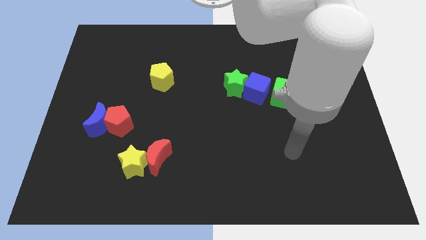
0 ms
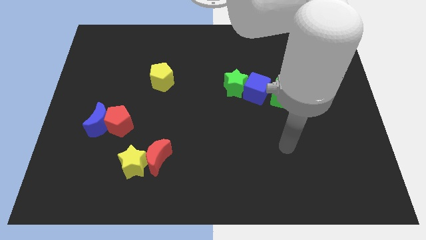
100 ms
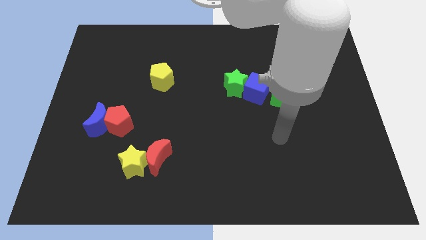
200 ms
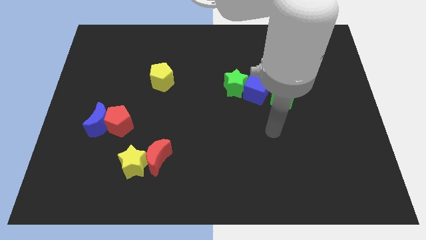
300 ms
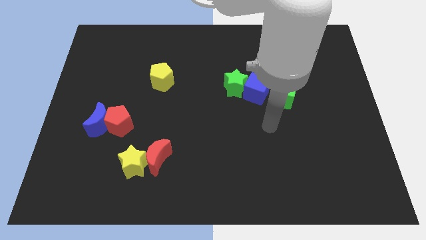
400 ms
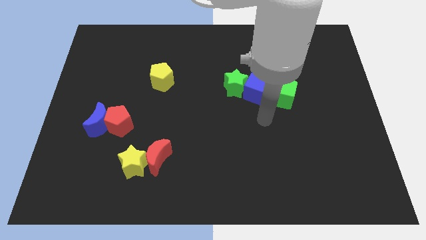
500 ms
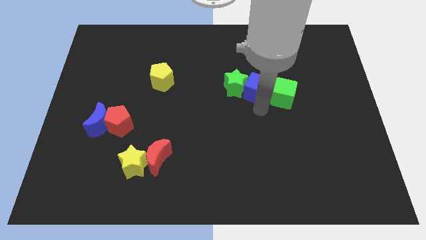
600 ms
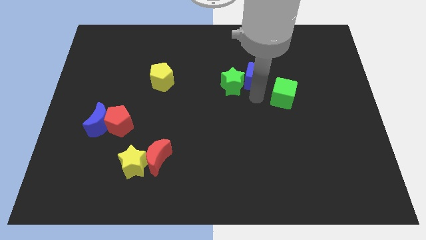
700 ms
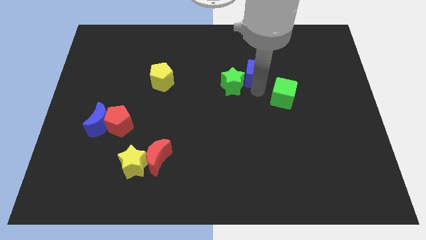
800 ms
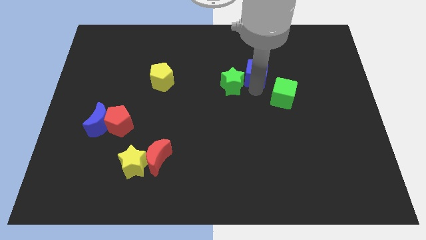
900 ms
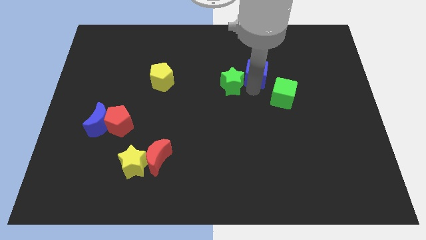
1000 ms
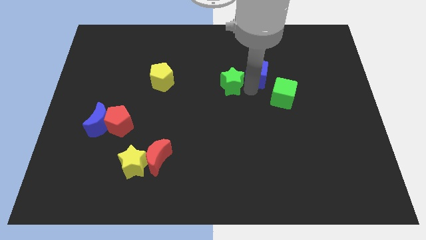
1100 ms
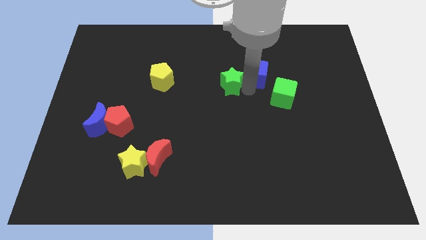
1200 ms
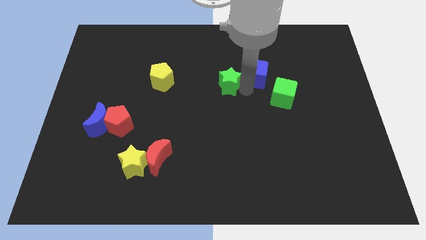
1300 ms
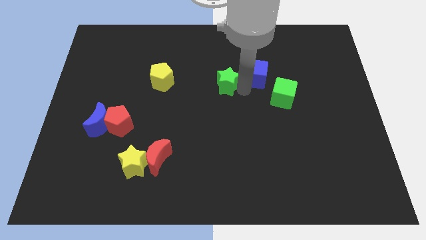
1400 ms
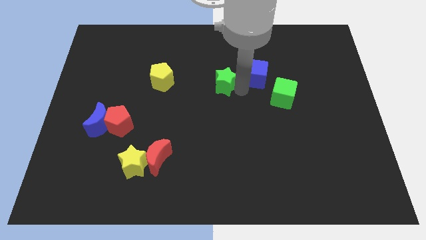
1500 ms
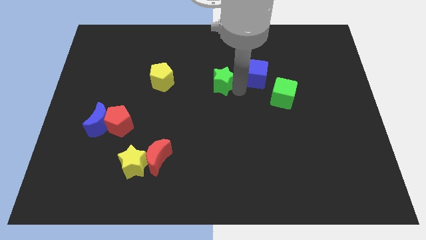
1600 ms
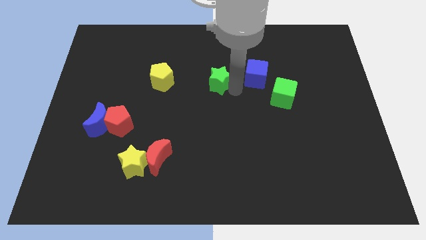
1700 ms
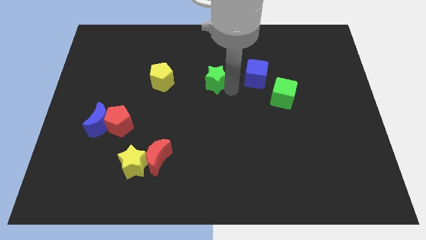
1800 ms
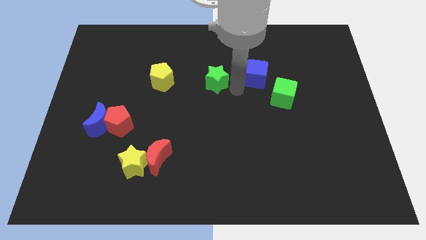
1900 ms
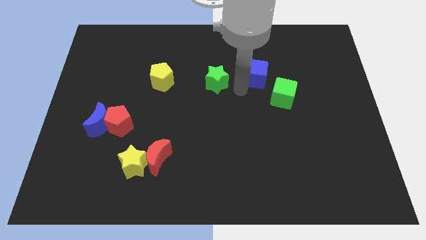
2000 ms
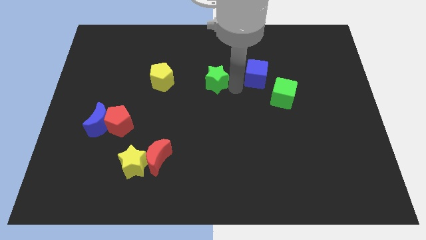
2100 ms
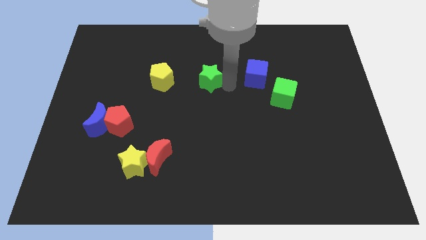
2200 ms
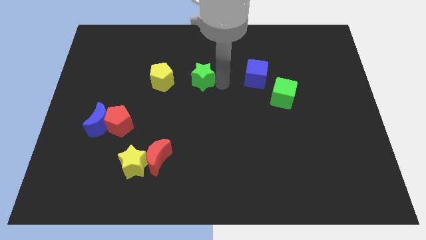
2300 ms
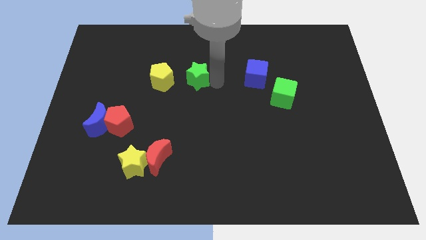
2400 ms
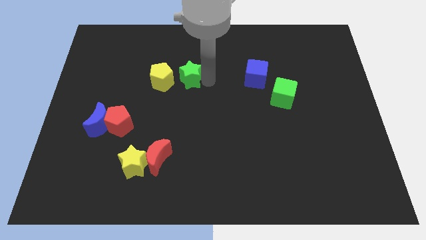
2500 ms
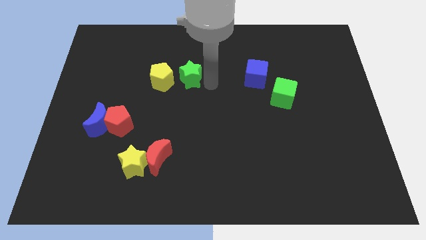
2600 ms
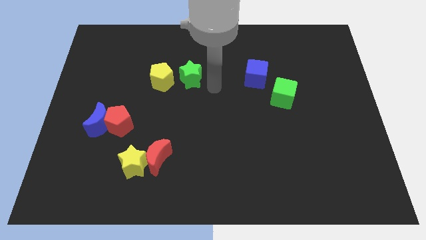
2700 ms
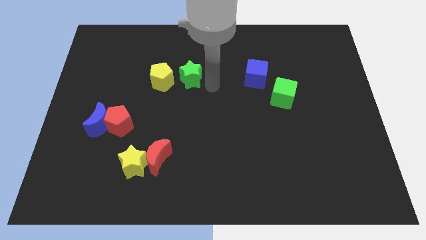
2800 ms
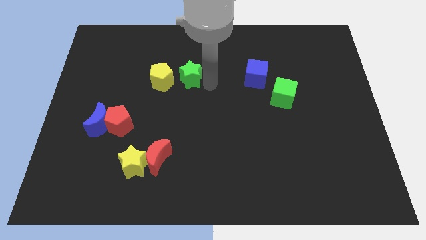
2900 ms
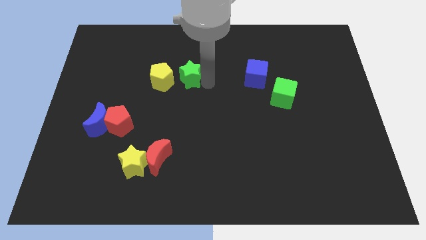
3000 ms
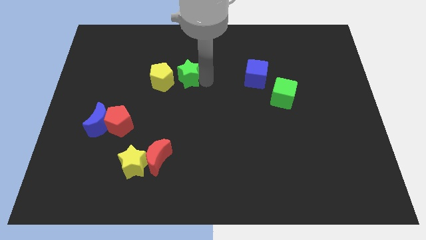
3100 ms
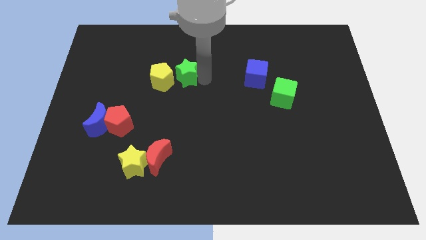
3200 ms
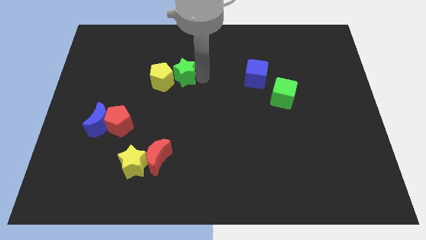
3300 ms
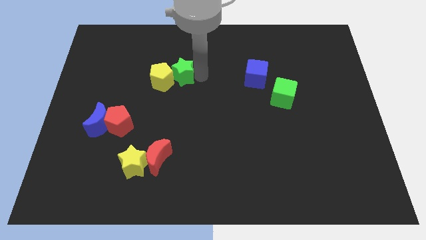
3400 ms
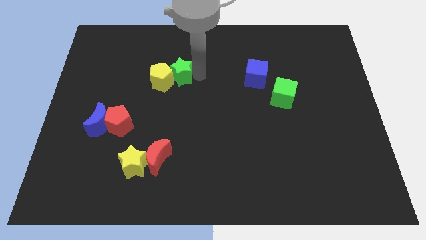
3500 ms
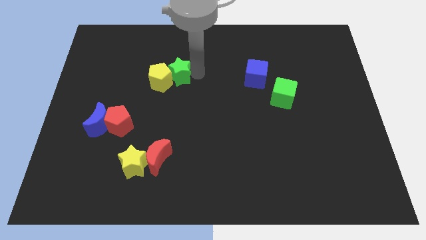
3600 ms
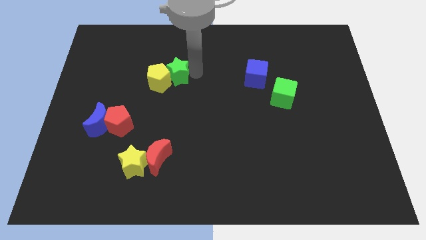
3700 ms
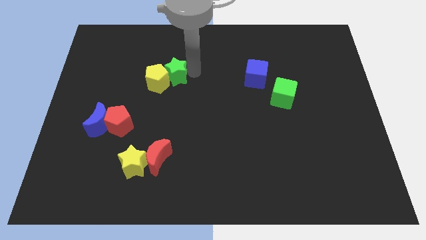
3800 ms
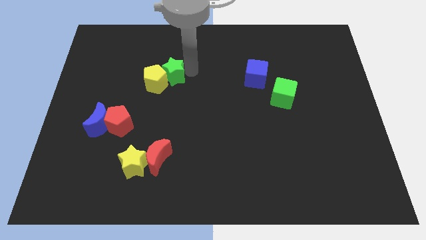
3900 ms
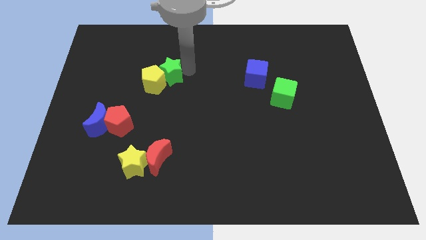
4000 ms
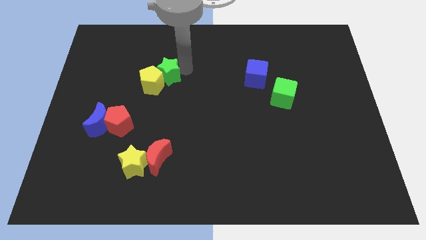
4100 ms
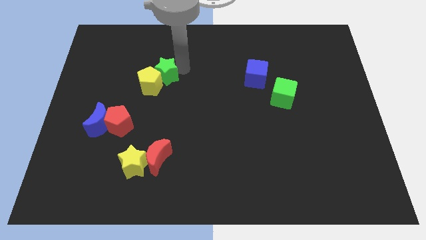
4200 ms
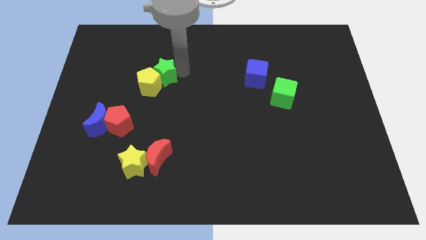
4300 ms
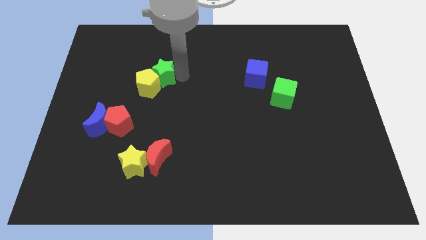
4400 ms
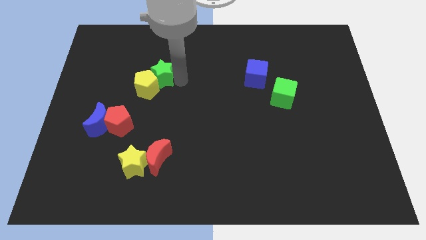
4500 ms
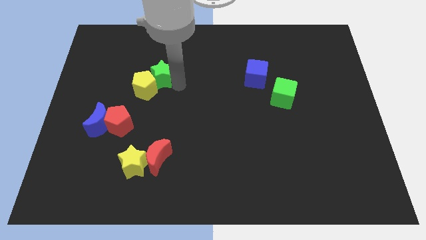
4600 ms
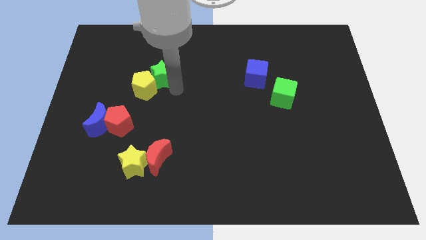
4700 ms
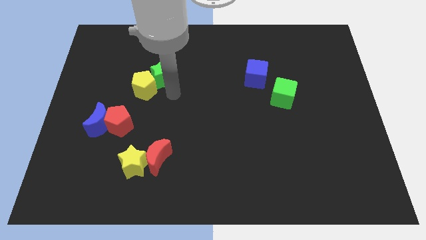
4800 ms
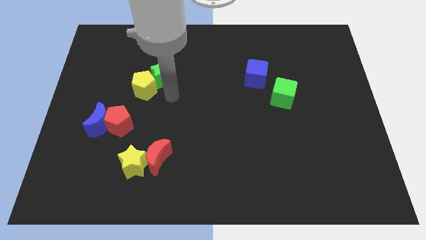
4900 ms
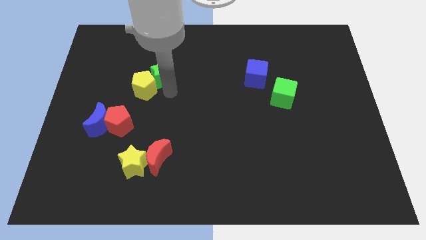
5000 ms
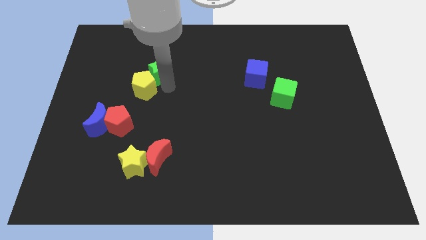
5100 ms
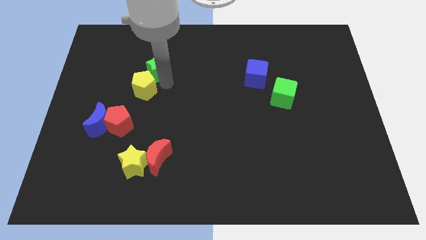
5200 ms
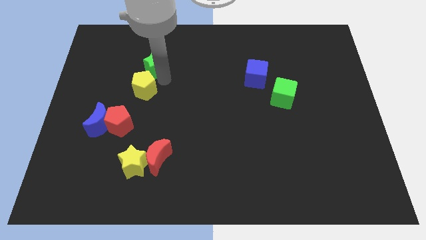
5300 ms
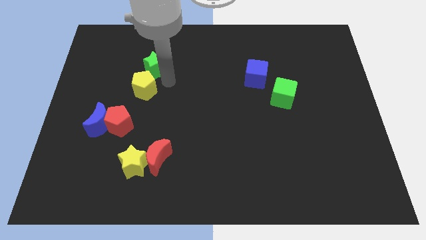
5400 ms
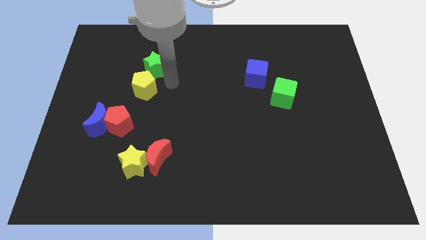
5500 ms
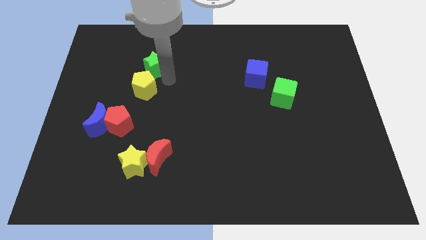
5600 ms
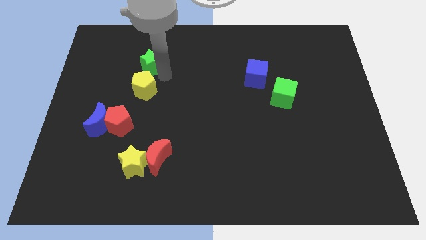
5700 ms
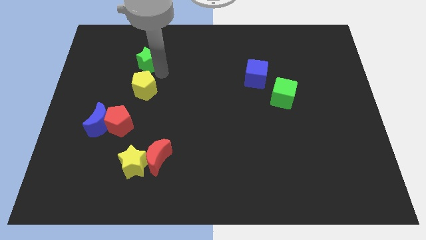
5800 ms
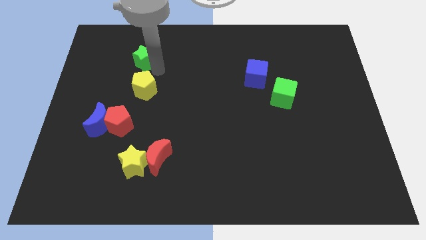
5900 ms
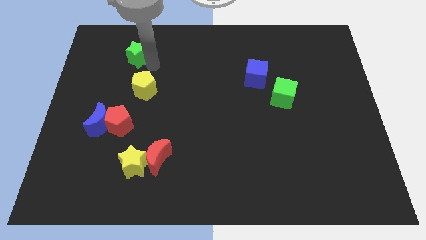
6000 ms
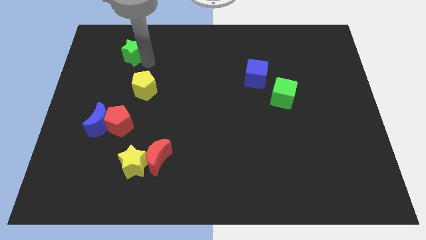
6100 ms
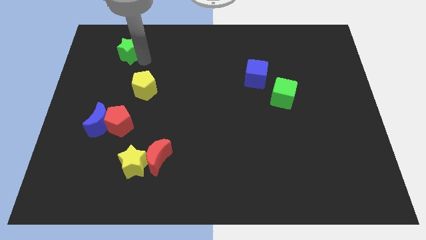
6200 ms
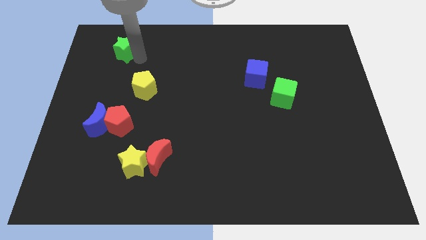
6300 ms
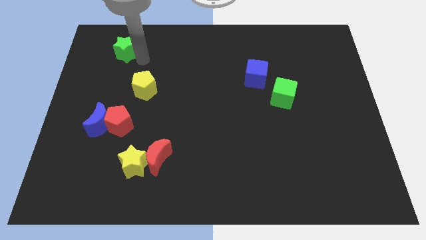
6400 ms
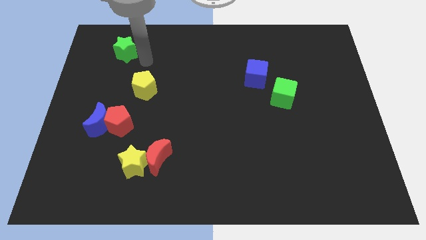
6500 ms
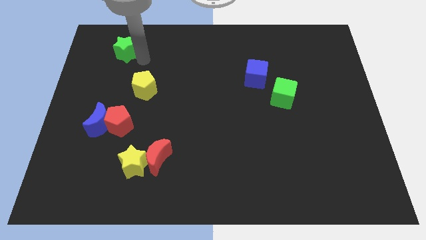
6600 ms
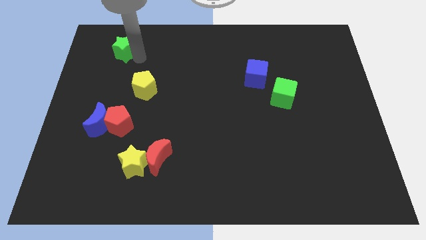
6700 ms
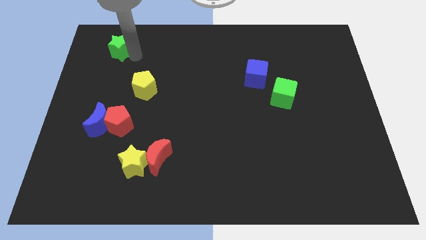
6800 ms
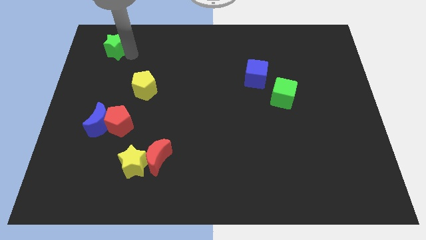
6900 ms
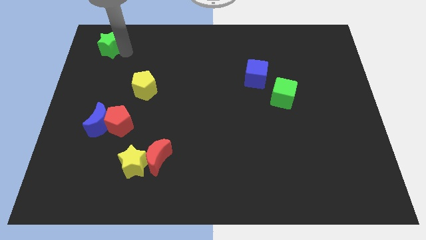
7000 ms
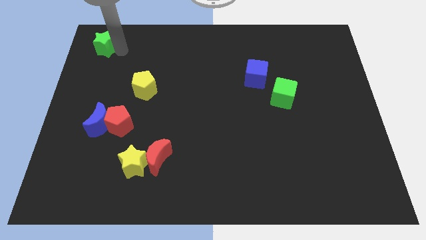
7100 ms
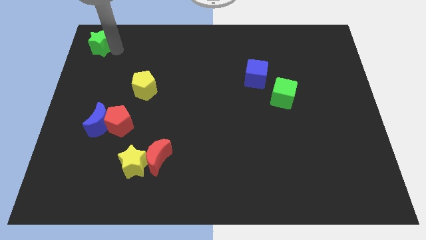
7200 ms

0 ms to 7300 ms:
move the green star to the top left of the board

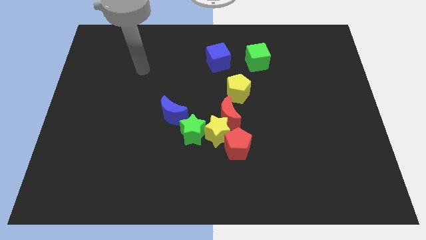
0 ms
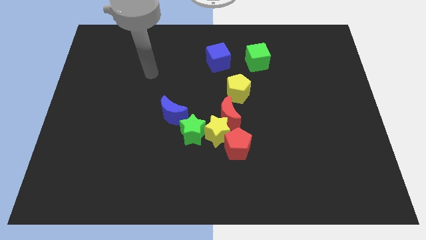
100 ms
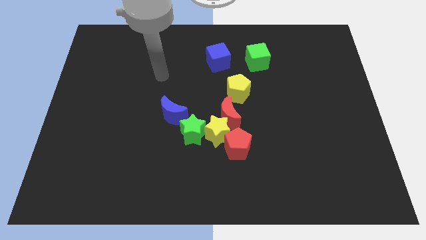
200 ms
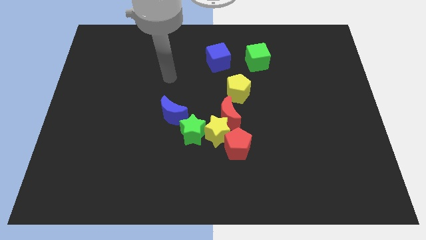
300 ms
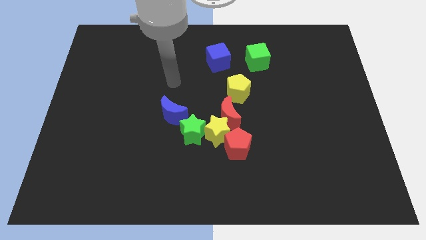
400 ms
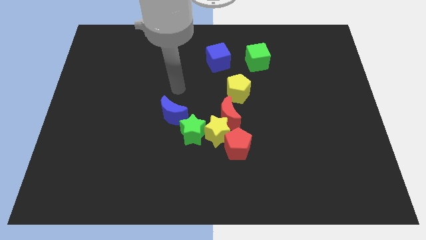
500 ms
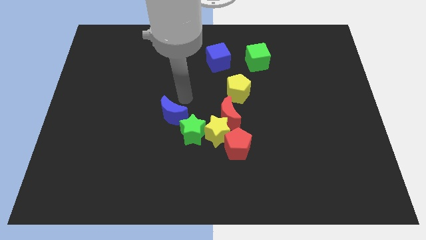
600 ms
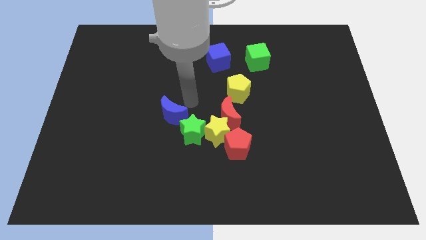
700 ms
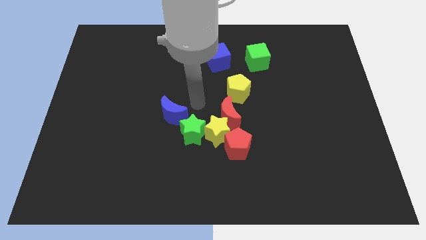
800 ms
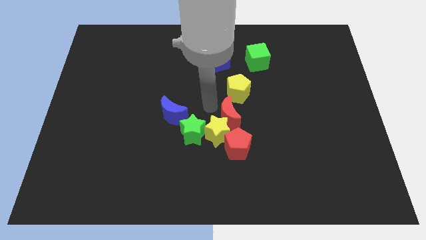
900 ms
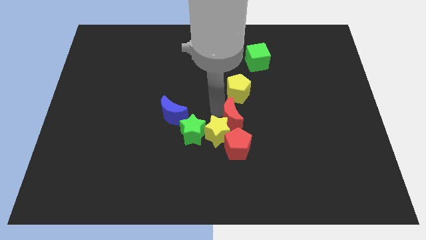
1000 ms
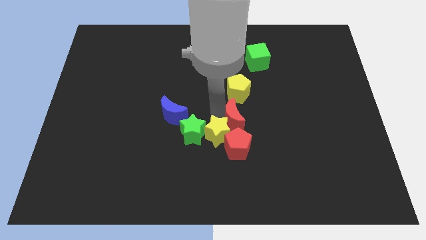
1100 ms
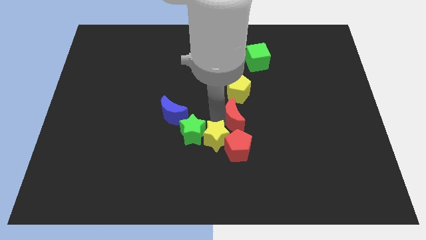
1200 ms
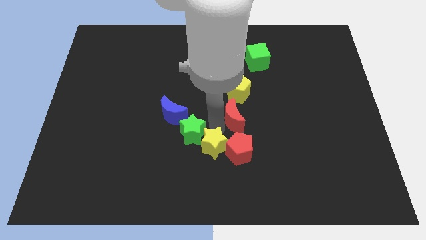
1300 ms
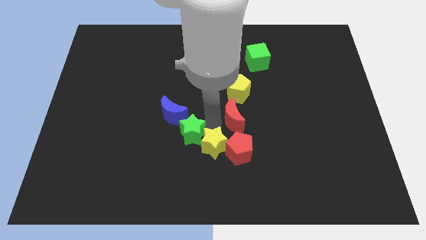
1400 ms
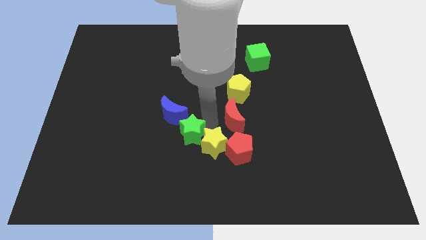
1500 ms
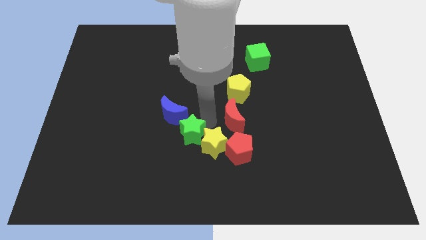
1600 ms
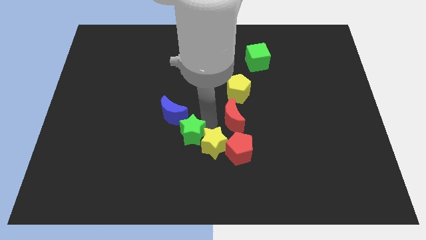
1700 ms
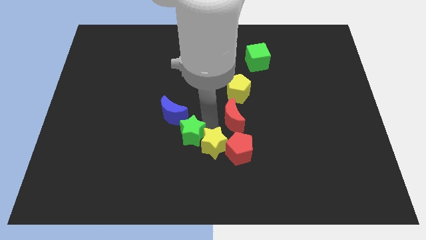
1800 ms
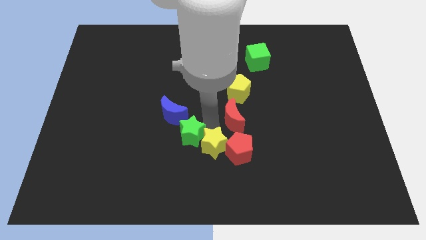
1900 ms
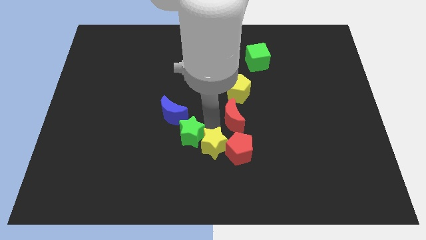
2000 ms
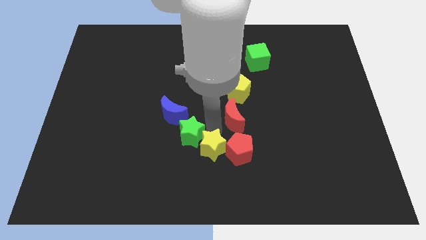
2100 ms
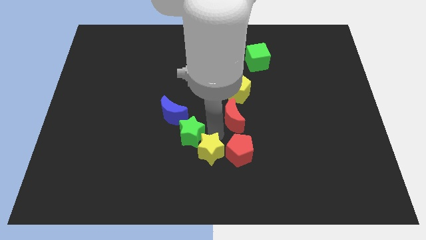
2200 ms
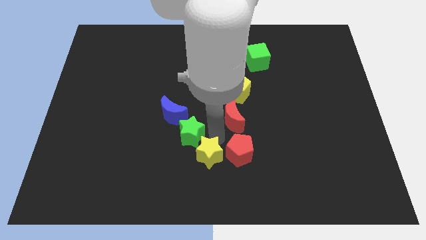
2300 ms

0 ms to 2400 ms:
push the yellow star to the bottom side
